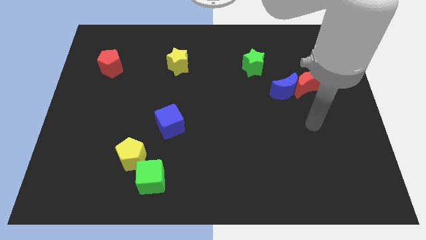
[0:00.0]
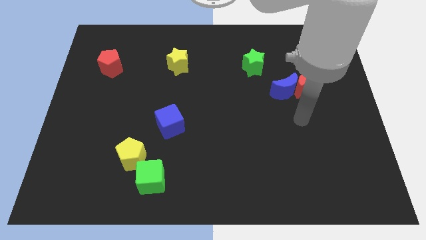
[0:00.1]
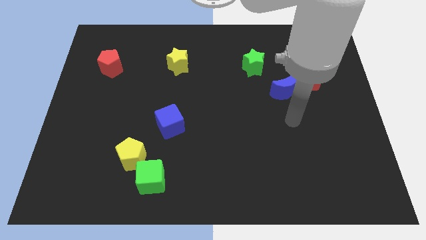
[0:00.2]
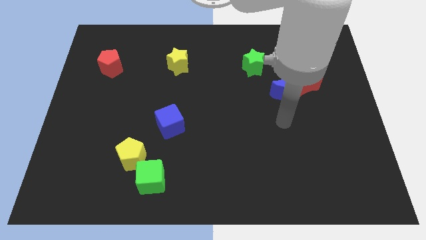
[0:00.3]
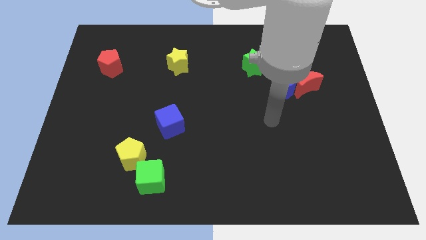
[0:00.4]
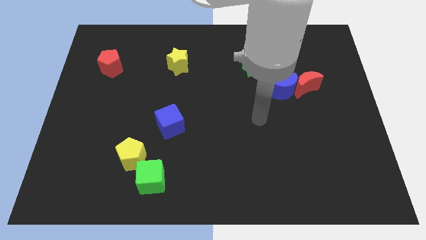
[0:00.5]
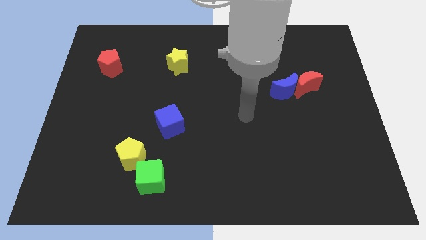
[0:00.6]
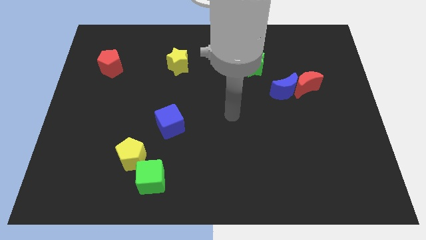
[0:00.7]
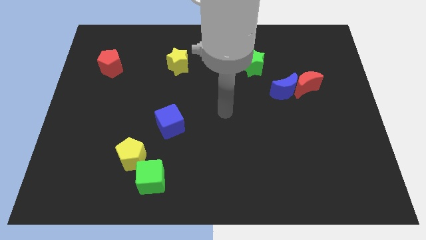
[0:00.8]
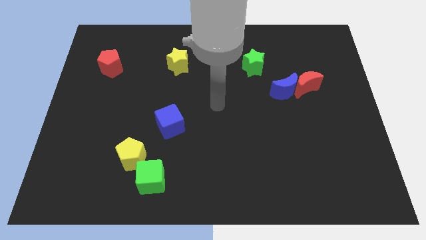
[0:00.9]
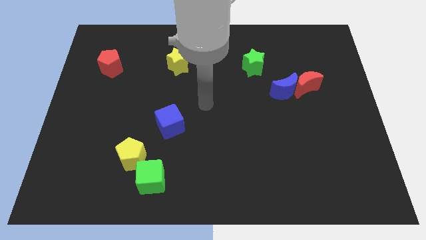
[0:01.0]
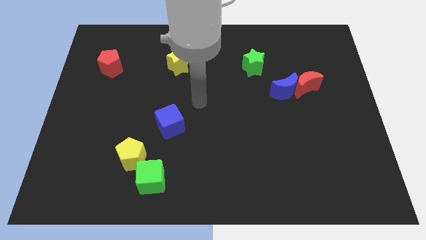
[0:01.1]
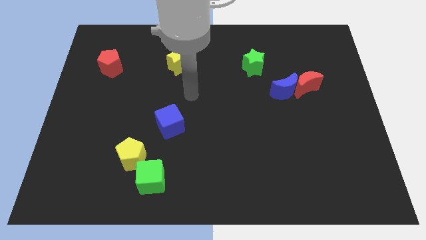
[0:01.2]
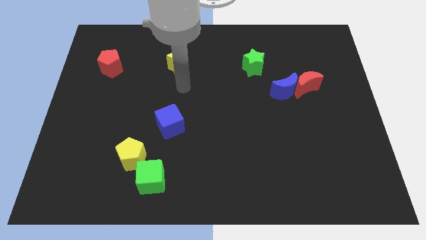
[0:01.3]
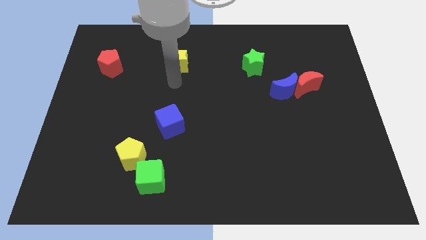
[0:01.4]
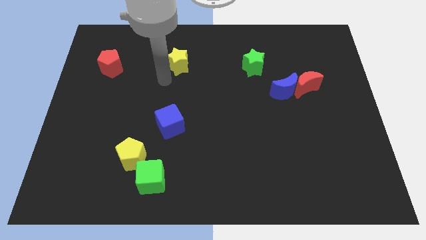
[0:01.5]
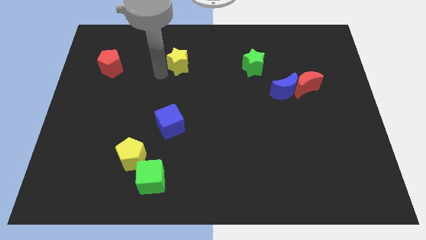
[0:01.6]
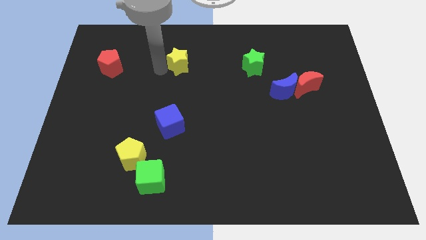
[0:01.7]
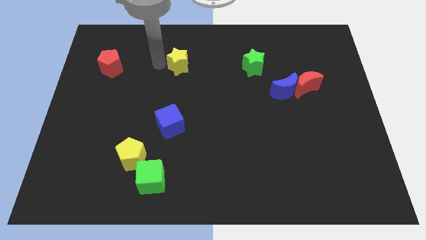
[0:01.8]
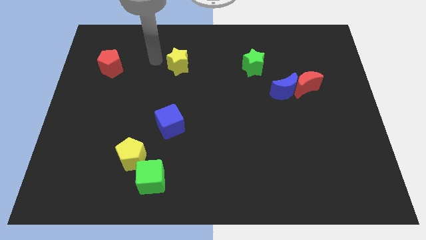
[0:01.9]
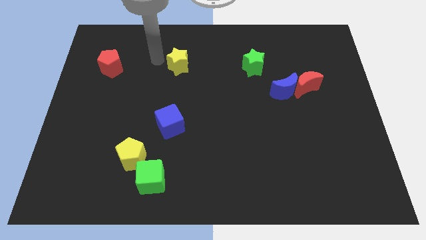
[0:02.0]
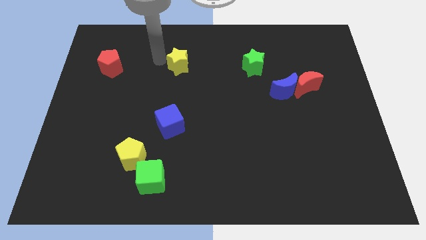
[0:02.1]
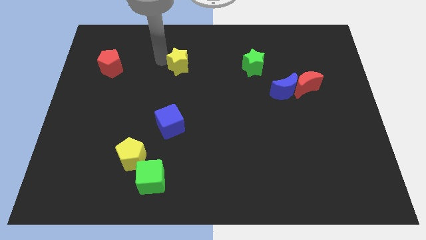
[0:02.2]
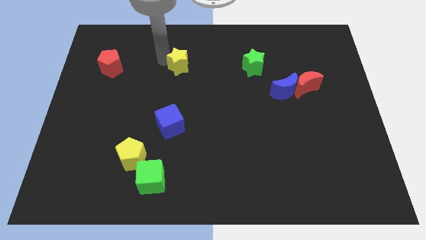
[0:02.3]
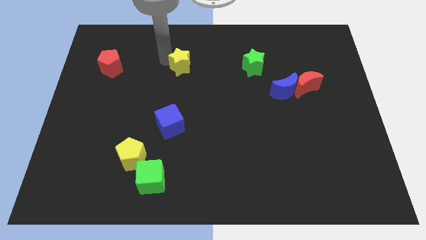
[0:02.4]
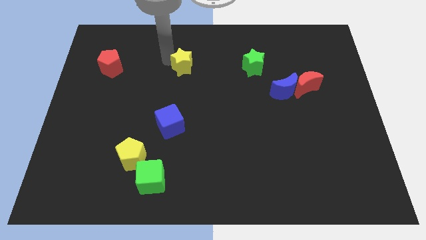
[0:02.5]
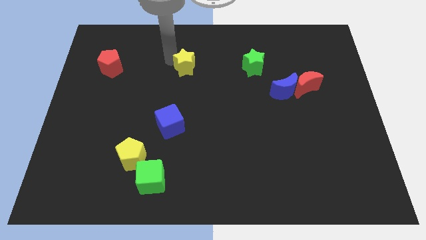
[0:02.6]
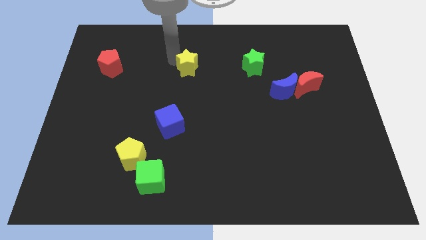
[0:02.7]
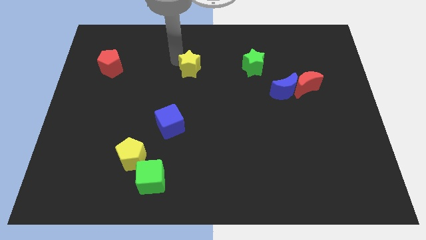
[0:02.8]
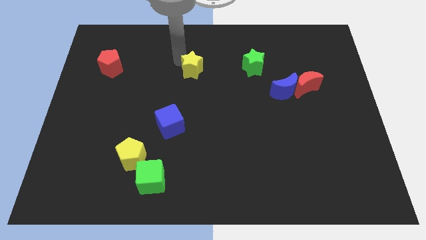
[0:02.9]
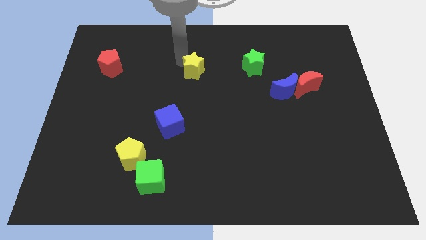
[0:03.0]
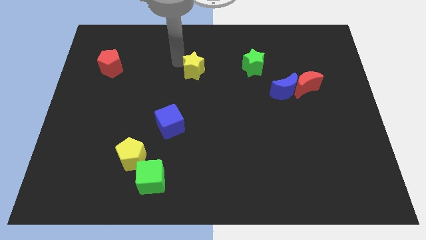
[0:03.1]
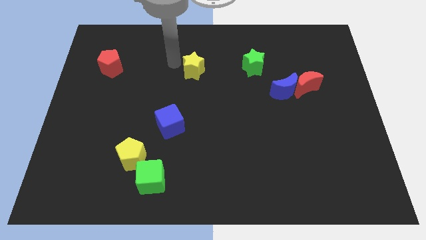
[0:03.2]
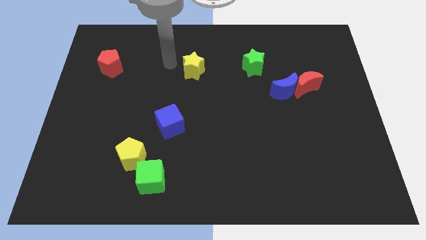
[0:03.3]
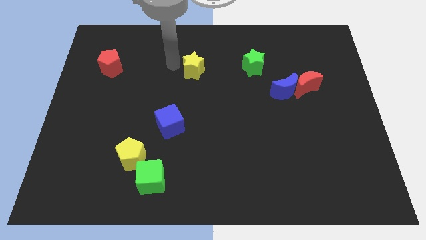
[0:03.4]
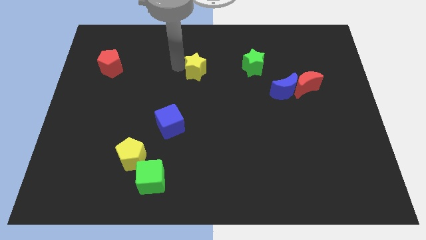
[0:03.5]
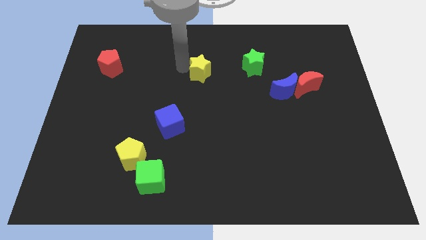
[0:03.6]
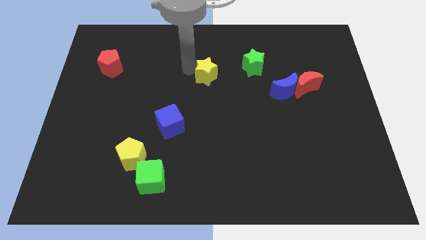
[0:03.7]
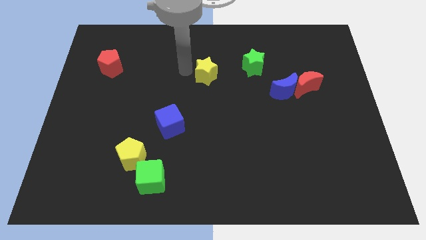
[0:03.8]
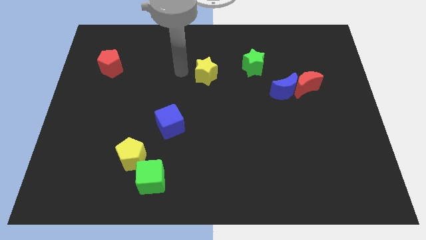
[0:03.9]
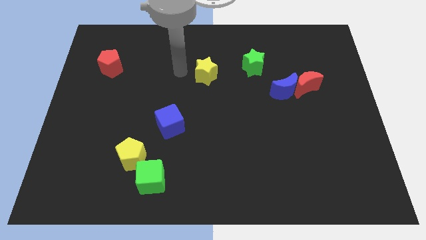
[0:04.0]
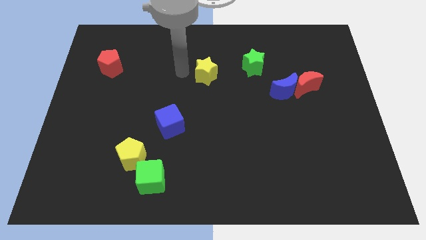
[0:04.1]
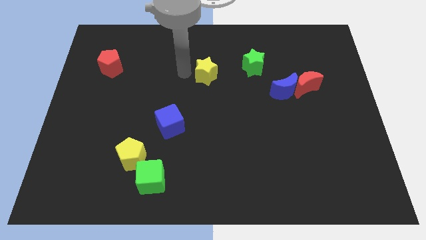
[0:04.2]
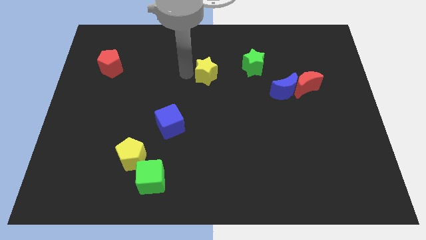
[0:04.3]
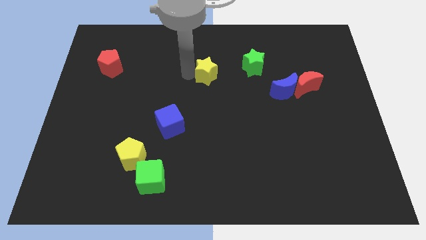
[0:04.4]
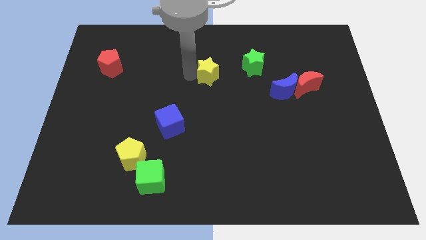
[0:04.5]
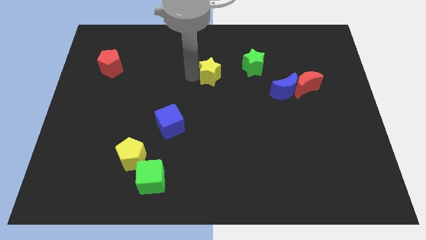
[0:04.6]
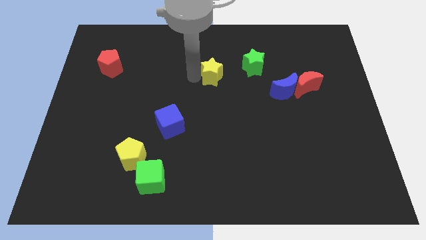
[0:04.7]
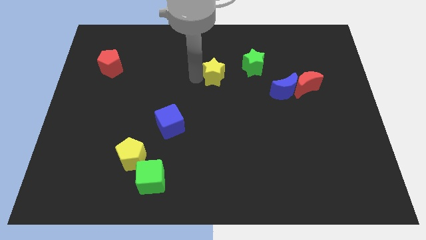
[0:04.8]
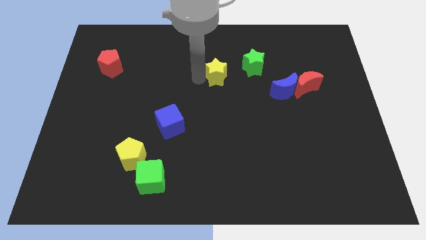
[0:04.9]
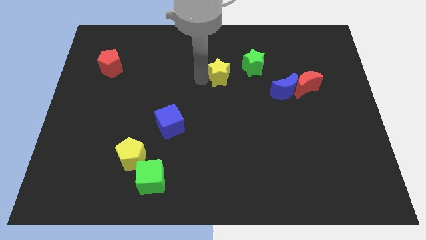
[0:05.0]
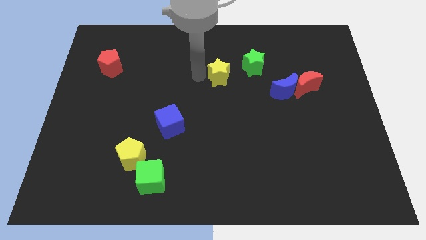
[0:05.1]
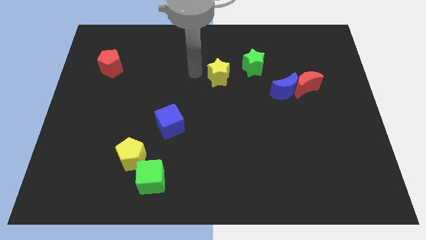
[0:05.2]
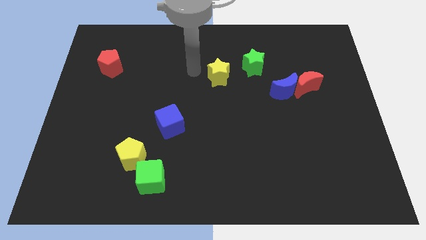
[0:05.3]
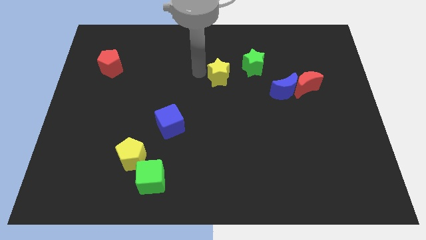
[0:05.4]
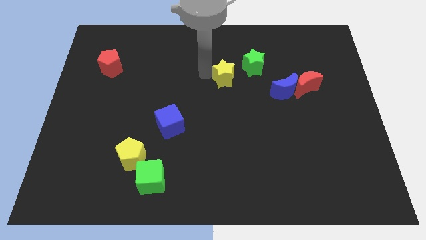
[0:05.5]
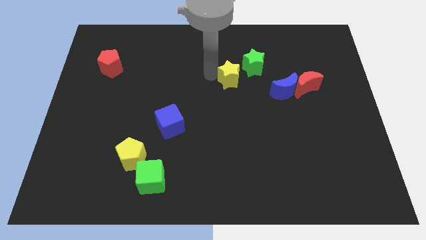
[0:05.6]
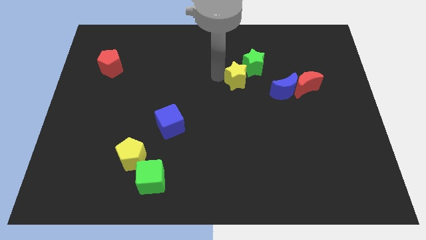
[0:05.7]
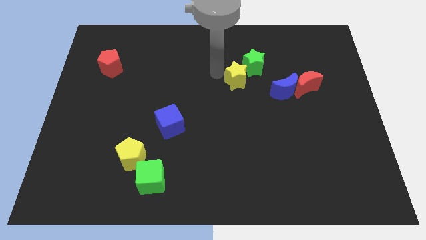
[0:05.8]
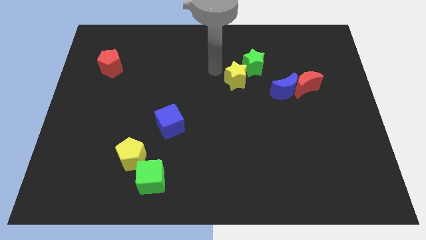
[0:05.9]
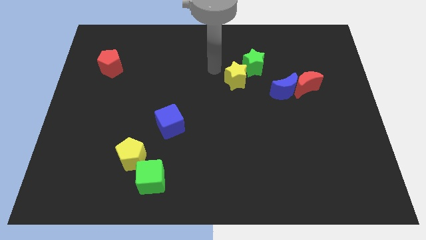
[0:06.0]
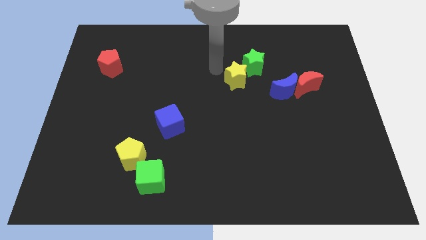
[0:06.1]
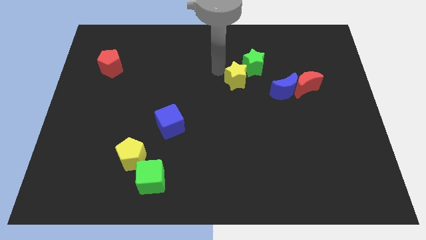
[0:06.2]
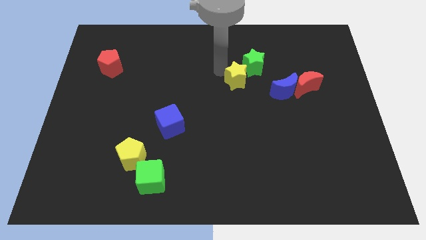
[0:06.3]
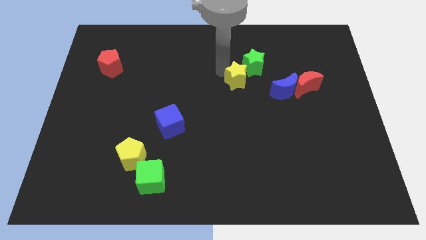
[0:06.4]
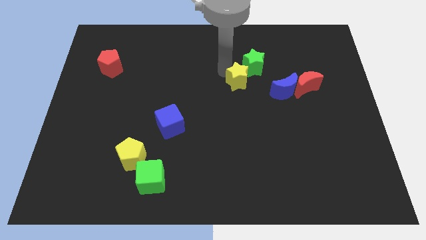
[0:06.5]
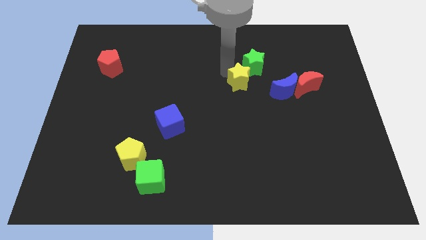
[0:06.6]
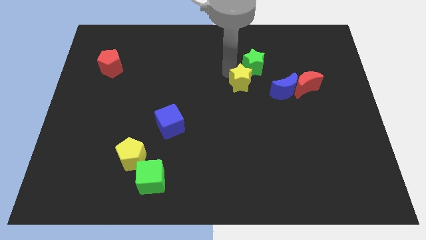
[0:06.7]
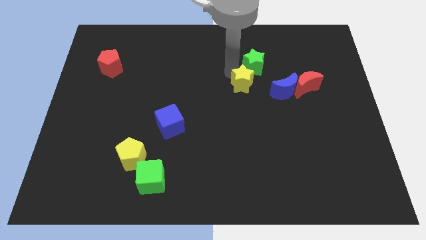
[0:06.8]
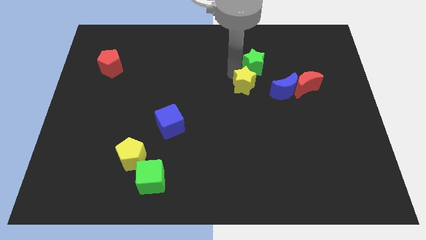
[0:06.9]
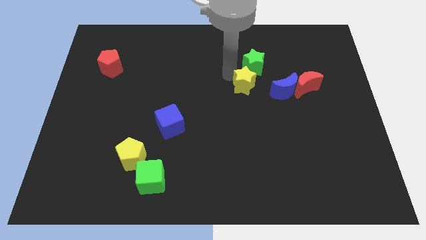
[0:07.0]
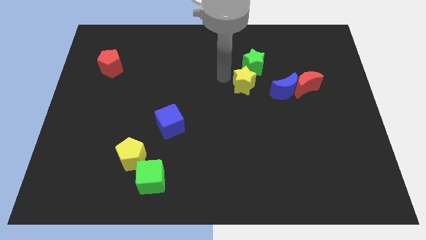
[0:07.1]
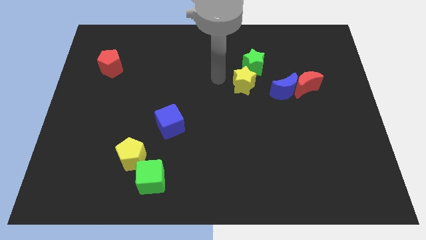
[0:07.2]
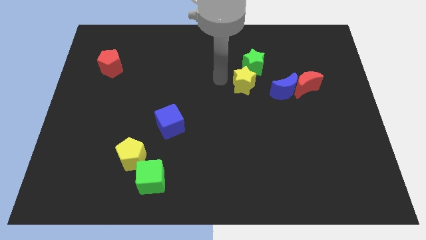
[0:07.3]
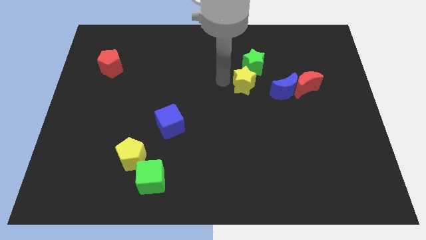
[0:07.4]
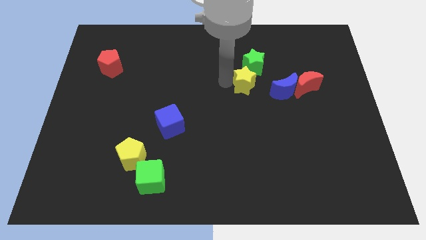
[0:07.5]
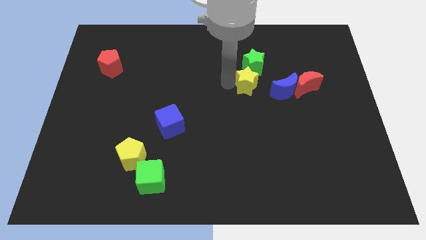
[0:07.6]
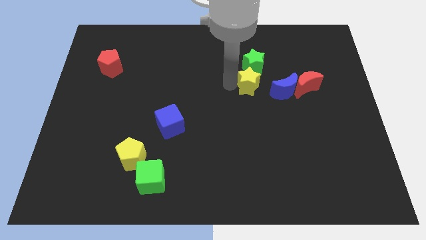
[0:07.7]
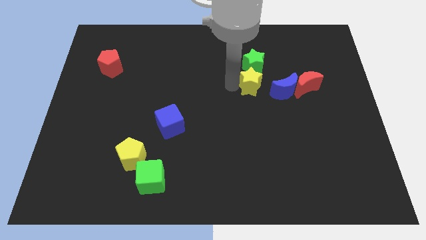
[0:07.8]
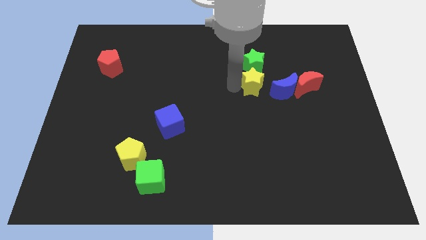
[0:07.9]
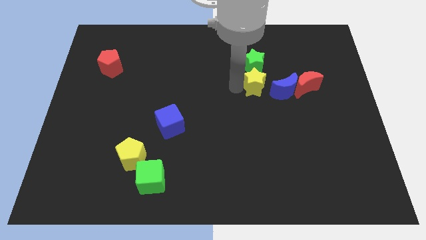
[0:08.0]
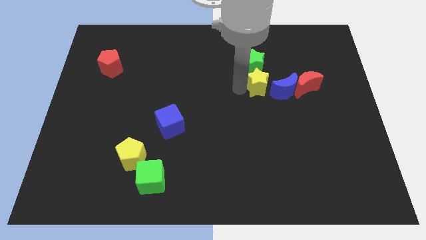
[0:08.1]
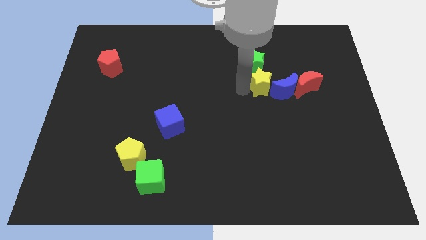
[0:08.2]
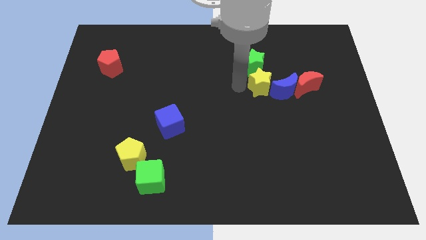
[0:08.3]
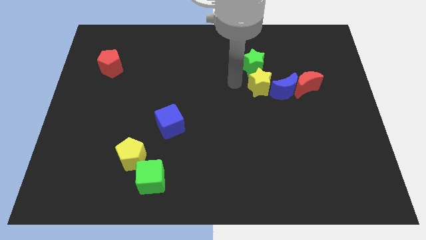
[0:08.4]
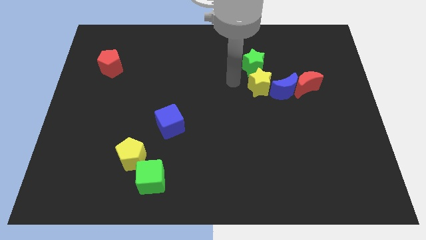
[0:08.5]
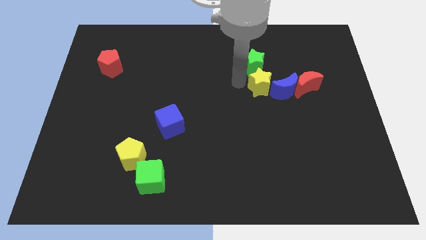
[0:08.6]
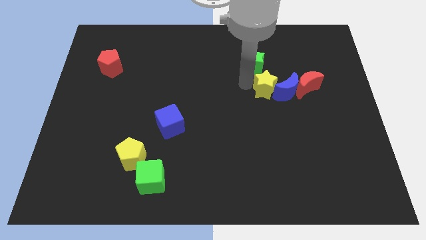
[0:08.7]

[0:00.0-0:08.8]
put the yellow star to the blue moon
